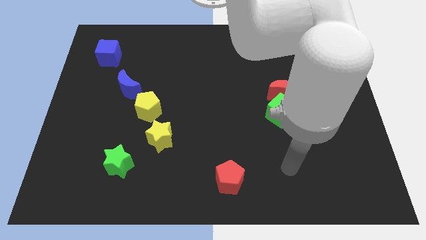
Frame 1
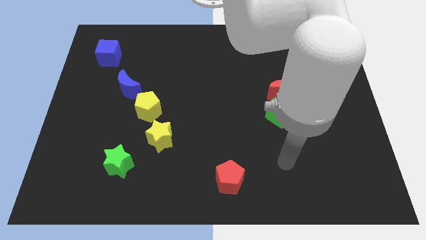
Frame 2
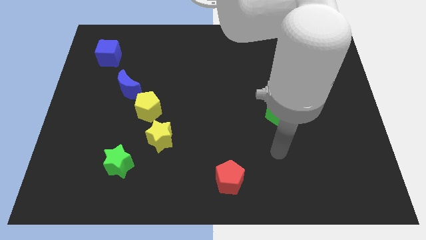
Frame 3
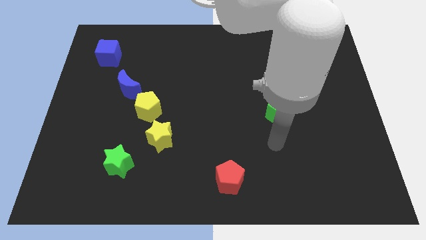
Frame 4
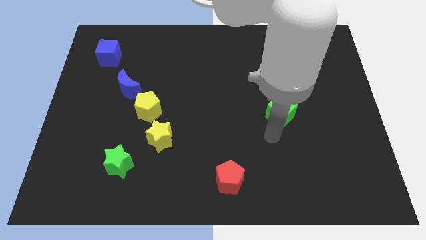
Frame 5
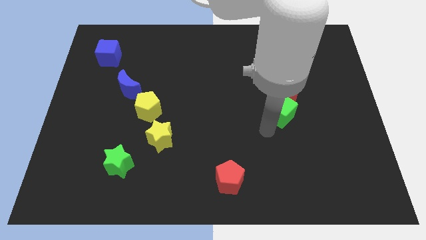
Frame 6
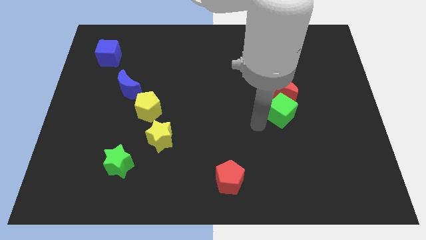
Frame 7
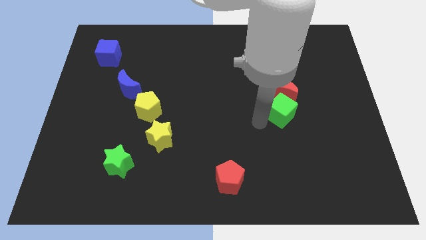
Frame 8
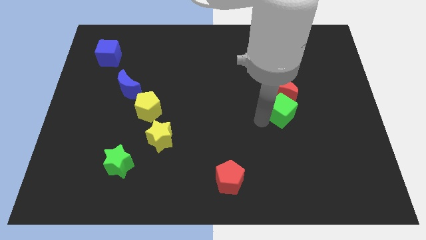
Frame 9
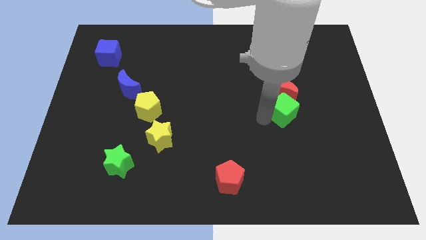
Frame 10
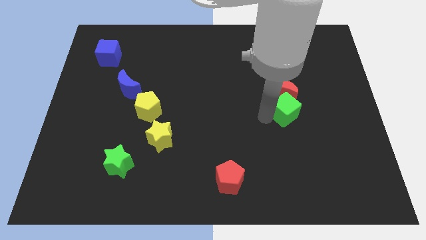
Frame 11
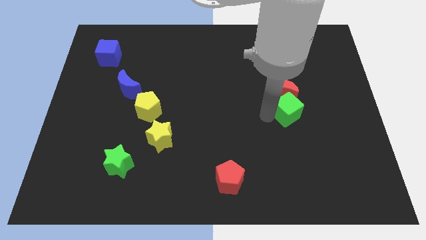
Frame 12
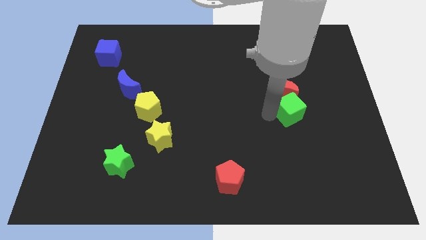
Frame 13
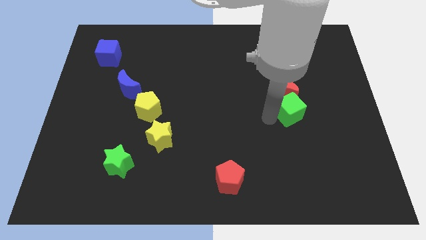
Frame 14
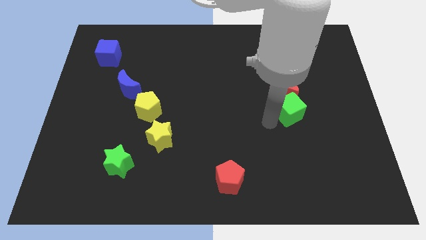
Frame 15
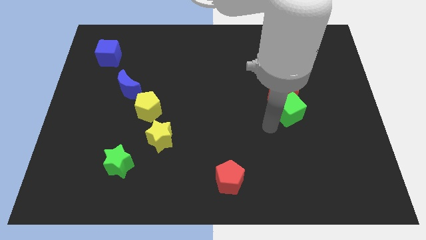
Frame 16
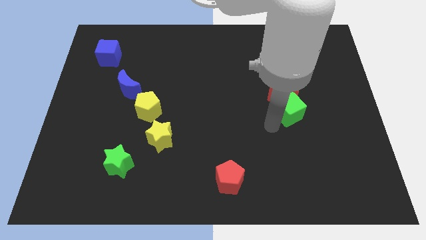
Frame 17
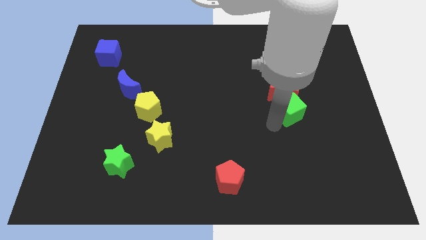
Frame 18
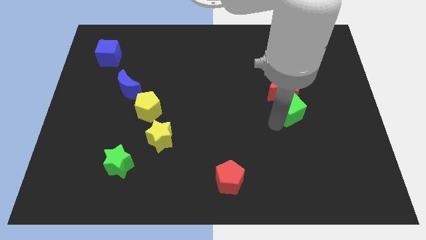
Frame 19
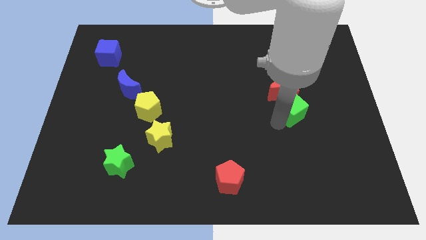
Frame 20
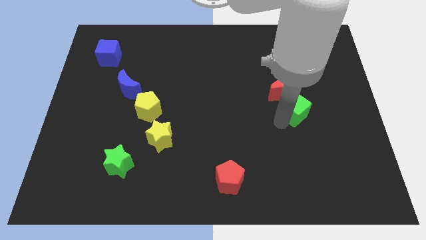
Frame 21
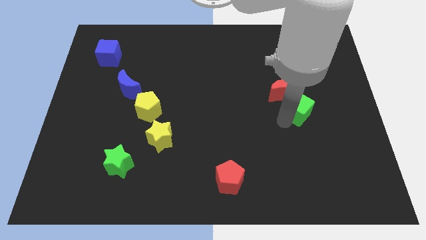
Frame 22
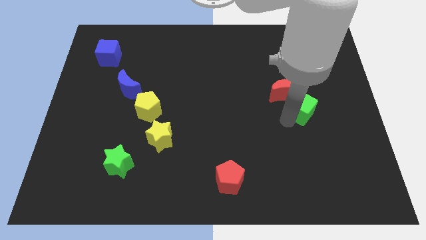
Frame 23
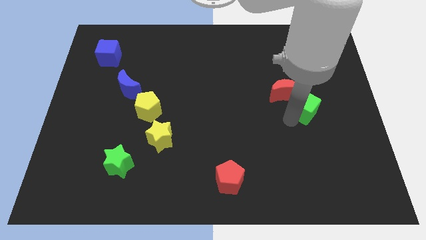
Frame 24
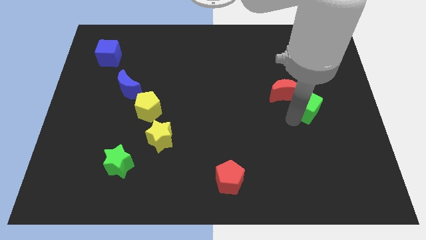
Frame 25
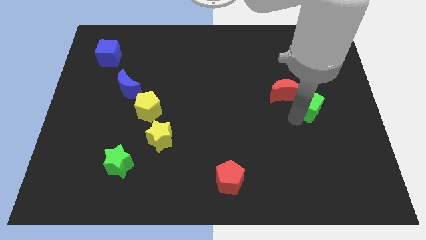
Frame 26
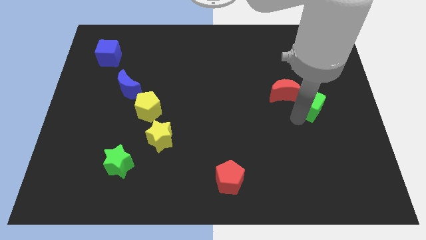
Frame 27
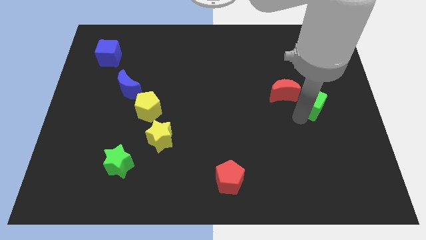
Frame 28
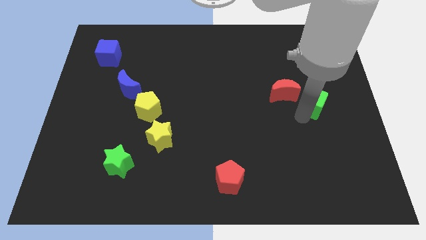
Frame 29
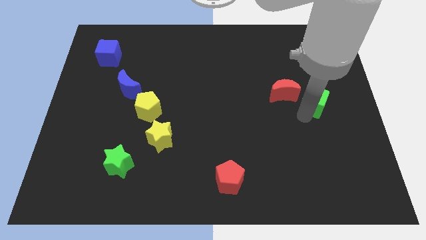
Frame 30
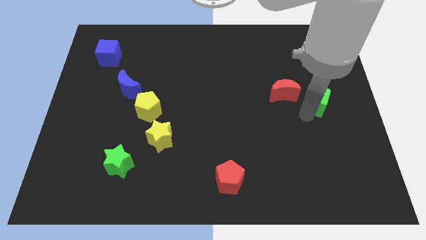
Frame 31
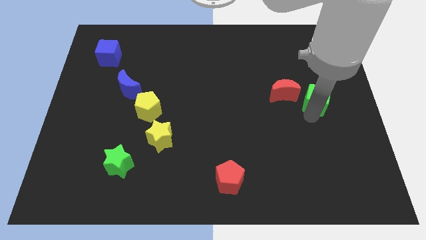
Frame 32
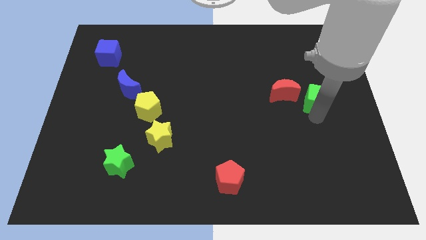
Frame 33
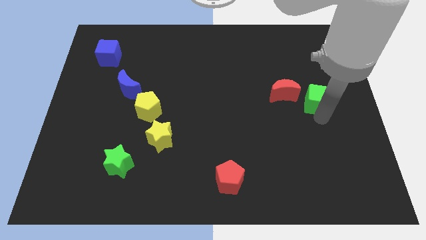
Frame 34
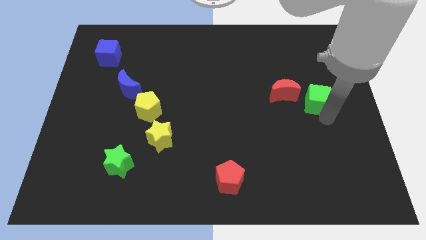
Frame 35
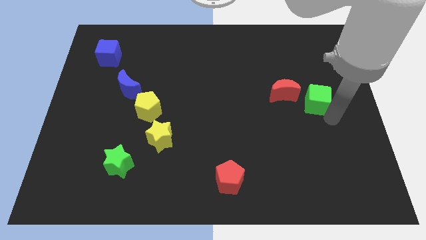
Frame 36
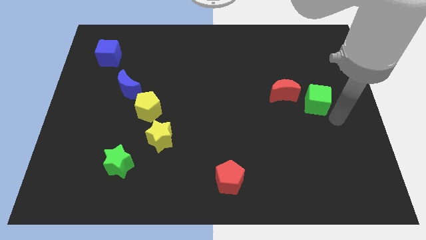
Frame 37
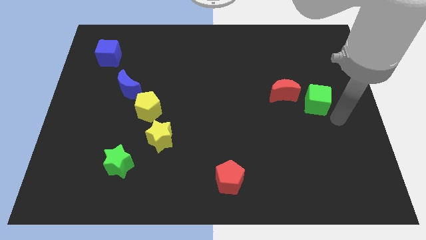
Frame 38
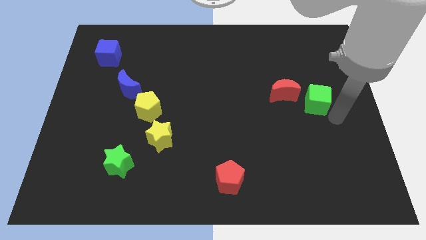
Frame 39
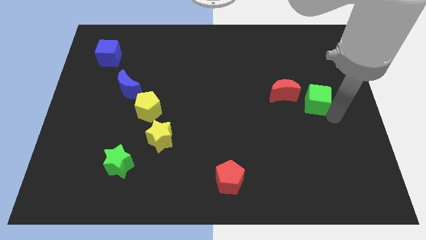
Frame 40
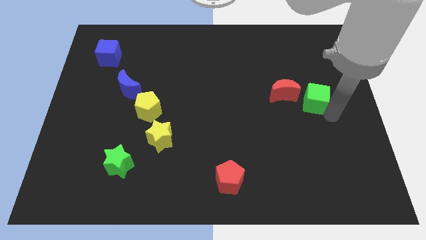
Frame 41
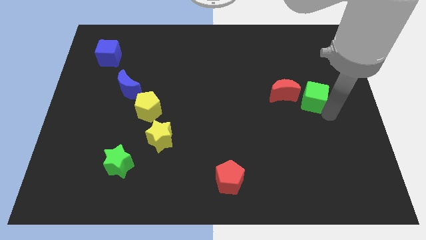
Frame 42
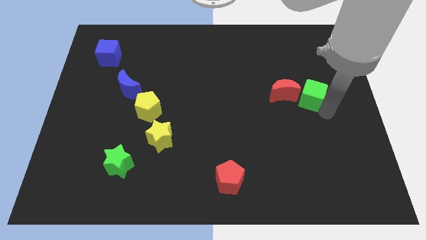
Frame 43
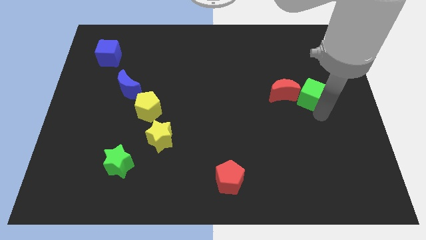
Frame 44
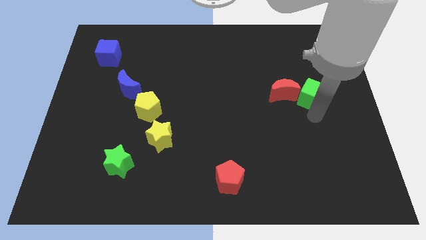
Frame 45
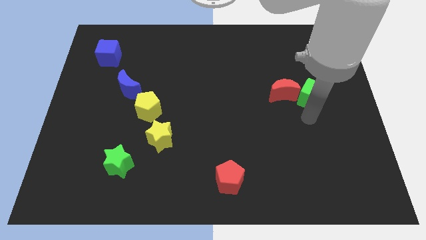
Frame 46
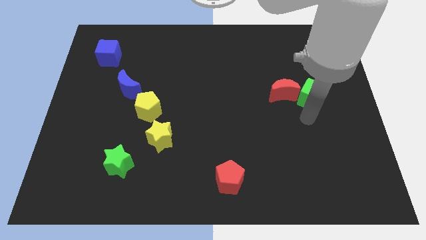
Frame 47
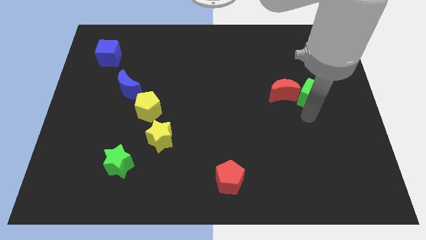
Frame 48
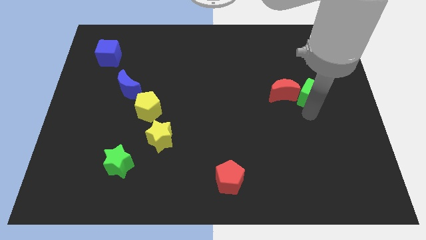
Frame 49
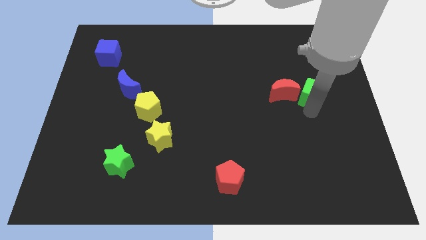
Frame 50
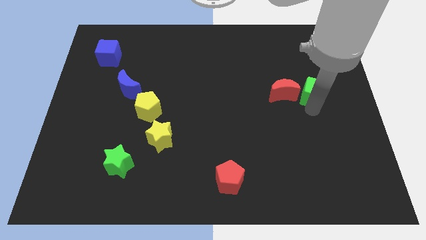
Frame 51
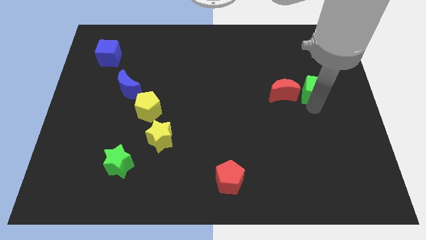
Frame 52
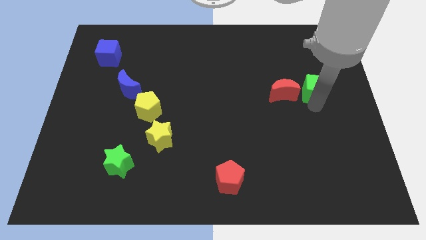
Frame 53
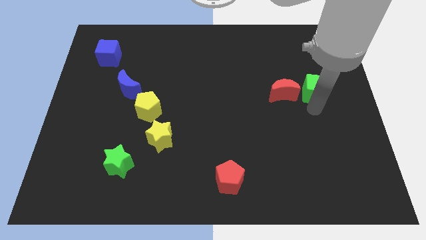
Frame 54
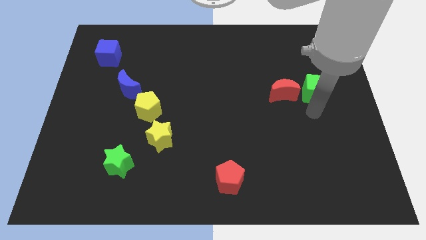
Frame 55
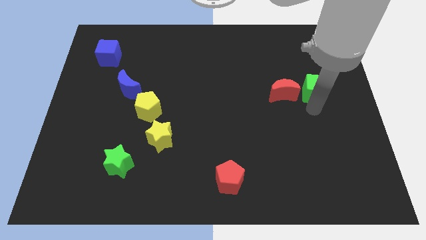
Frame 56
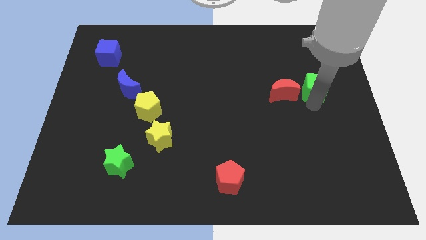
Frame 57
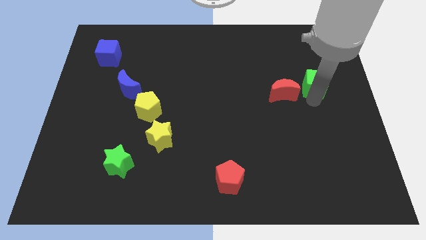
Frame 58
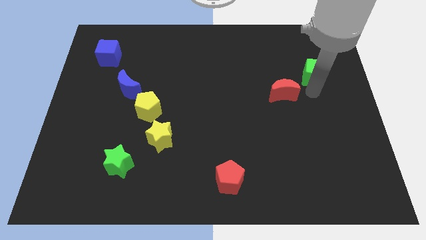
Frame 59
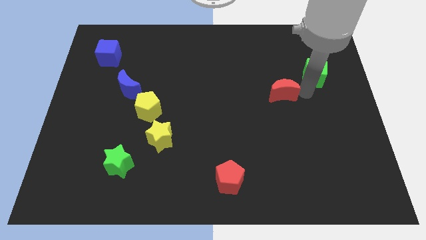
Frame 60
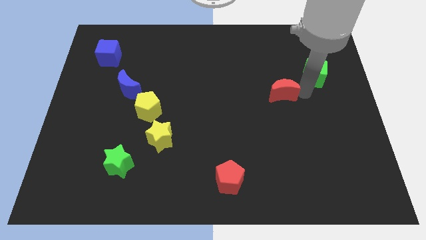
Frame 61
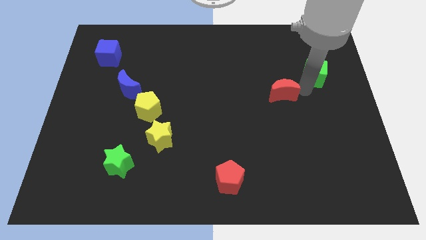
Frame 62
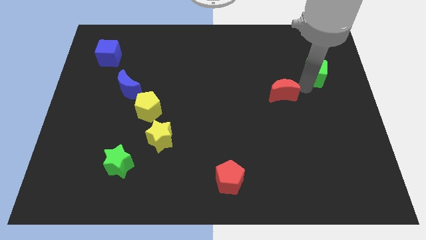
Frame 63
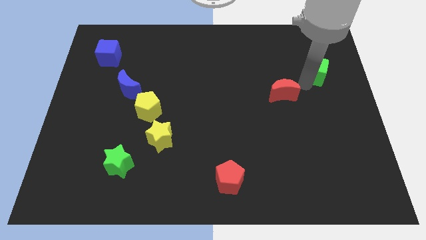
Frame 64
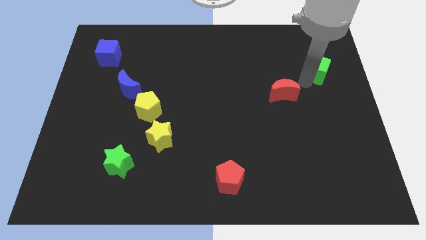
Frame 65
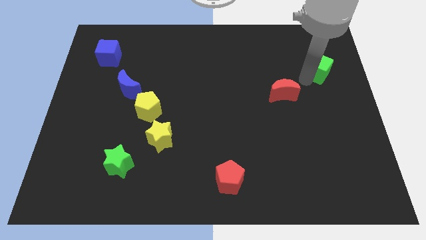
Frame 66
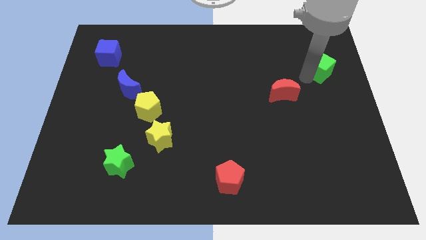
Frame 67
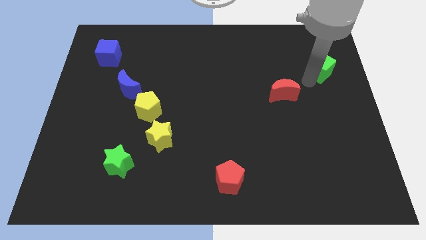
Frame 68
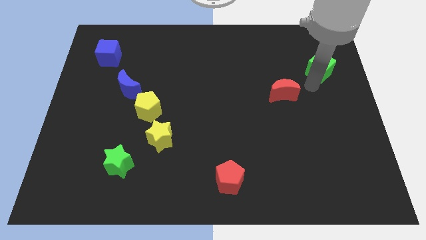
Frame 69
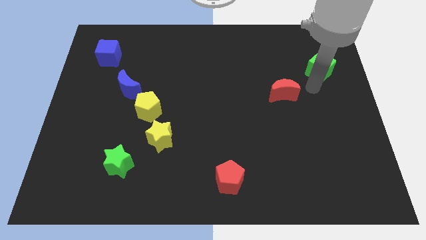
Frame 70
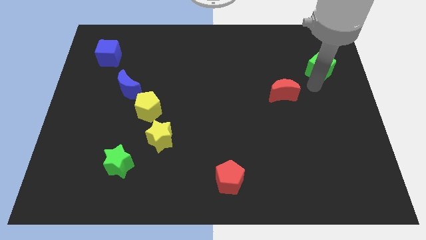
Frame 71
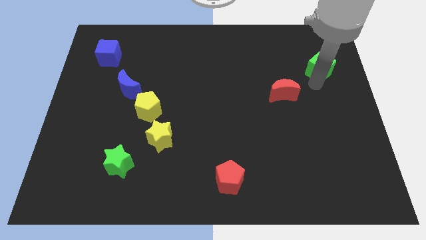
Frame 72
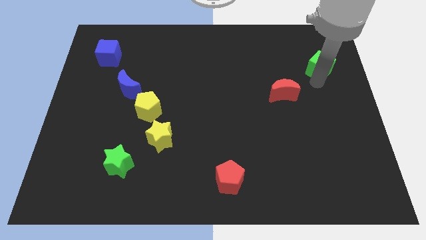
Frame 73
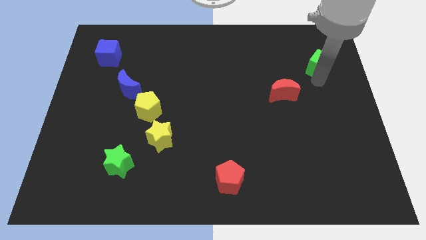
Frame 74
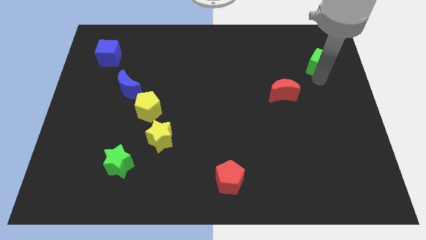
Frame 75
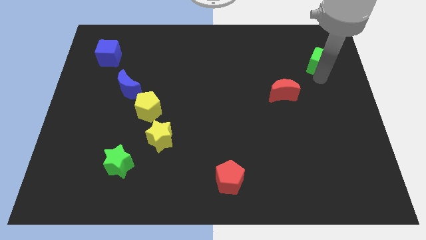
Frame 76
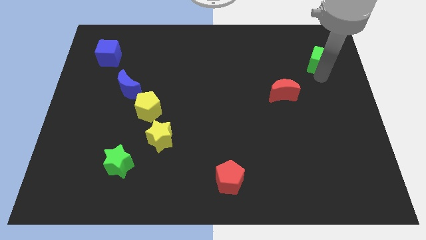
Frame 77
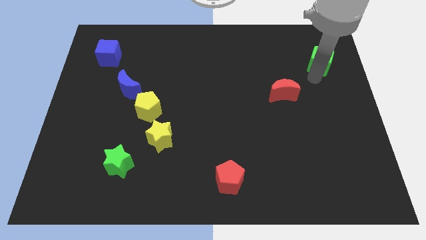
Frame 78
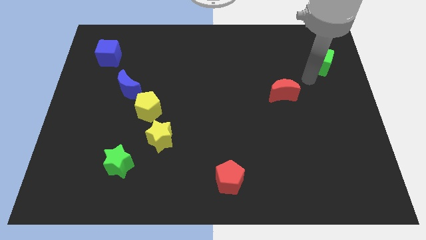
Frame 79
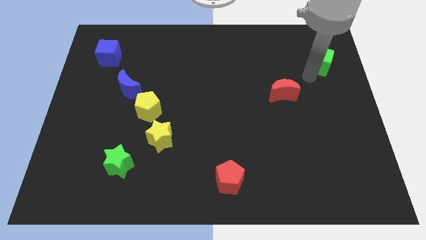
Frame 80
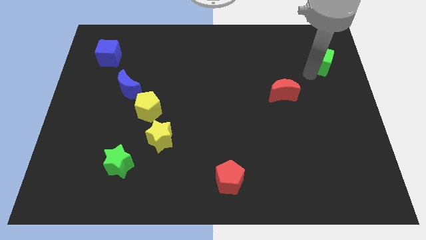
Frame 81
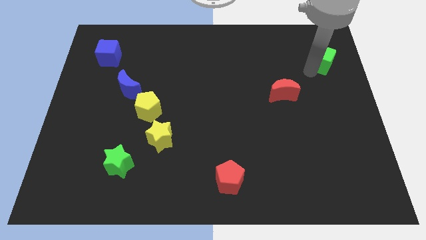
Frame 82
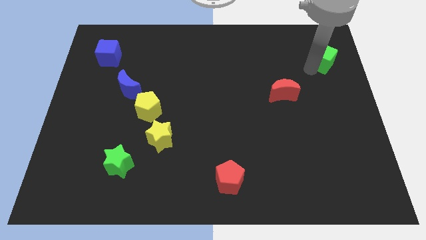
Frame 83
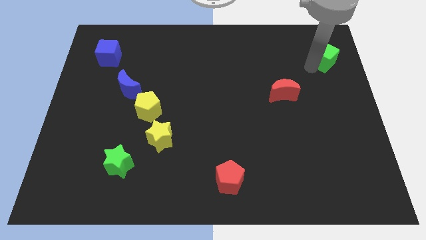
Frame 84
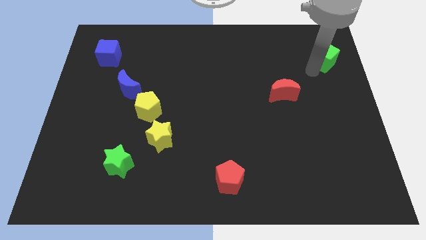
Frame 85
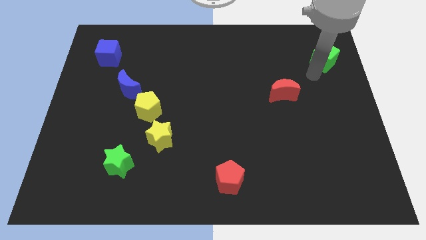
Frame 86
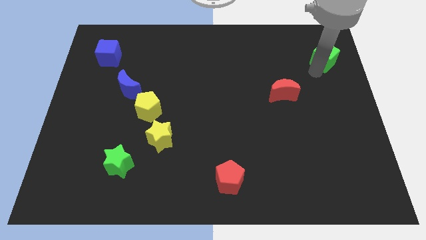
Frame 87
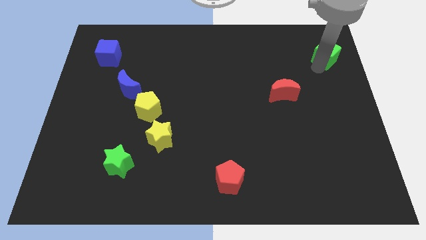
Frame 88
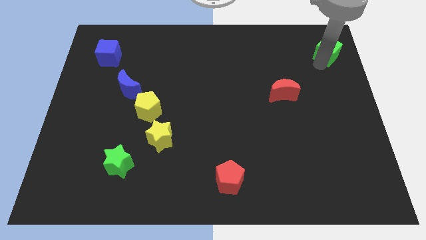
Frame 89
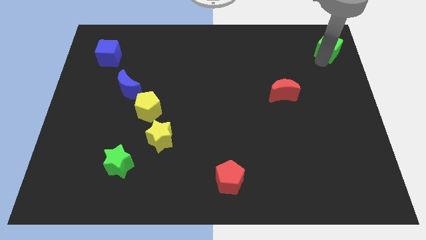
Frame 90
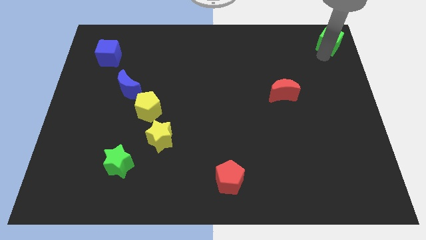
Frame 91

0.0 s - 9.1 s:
push the green cube to the top right of the board
